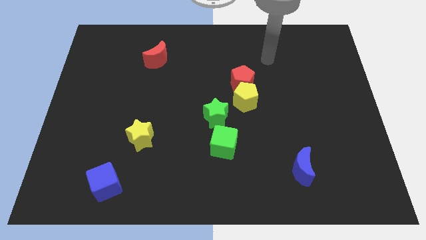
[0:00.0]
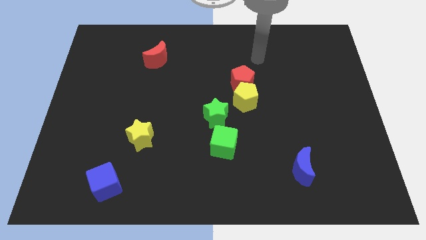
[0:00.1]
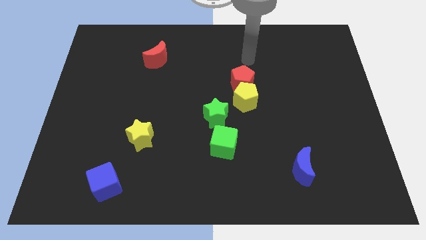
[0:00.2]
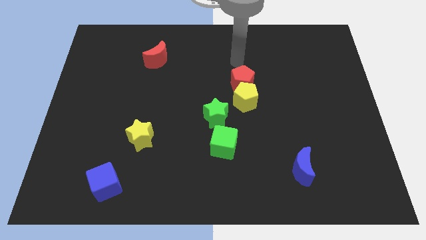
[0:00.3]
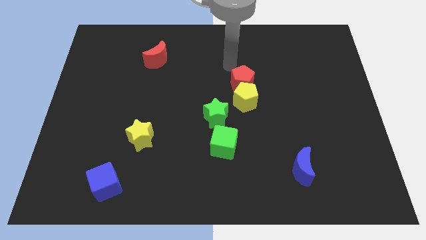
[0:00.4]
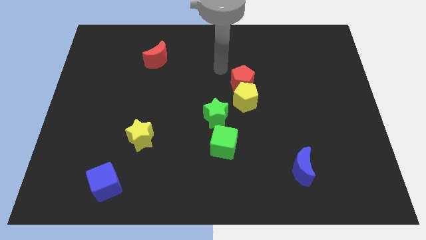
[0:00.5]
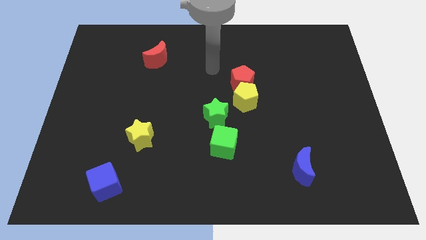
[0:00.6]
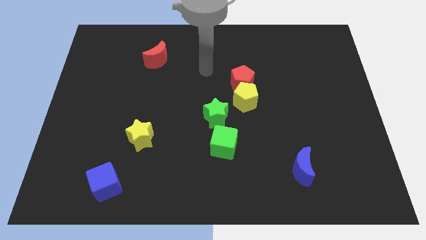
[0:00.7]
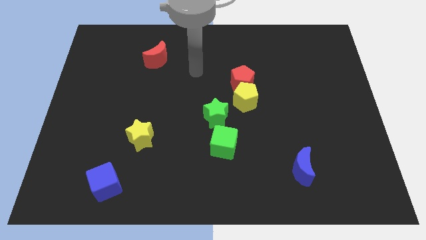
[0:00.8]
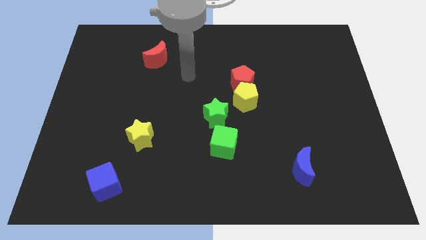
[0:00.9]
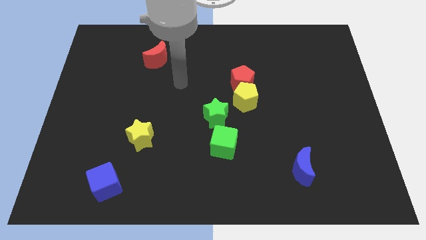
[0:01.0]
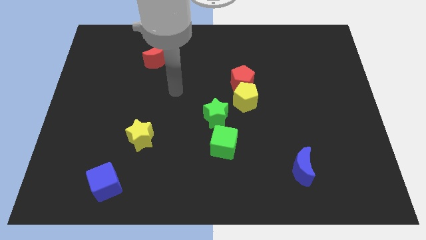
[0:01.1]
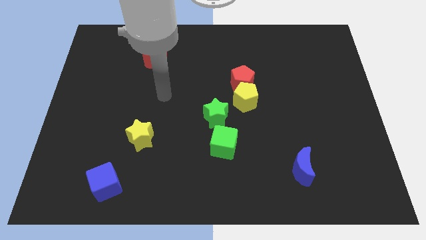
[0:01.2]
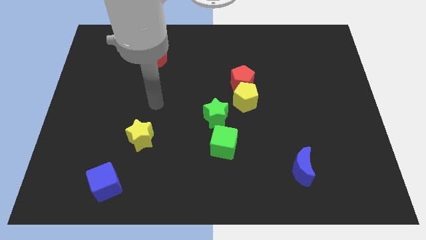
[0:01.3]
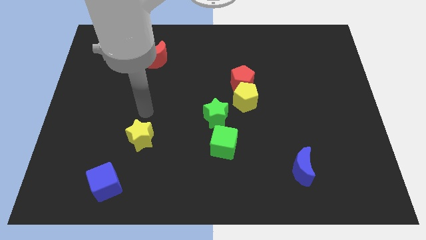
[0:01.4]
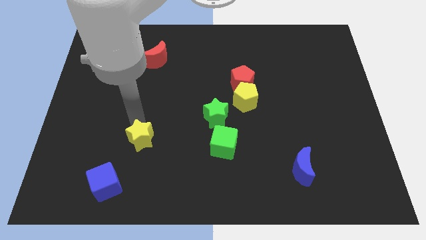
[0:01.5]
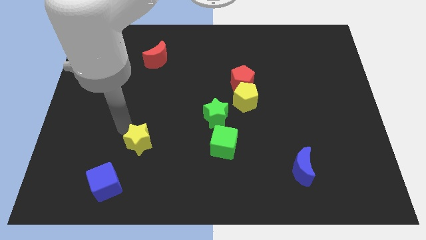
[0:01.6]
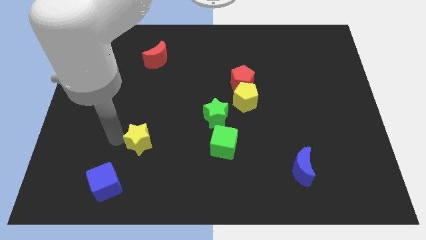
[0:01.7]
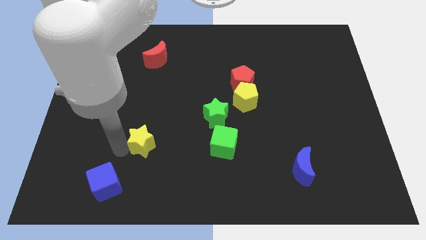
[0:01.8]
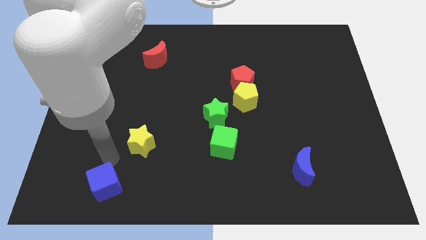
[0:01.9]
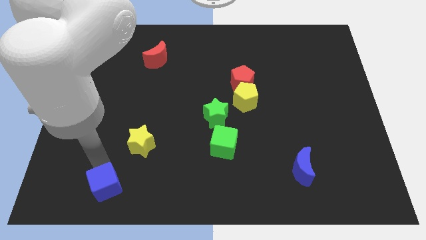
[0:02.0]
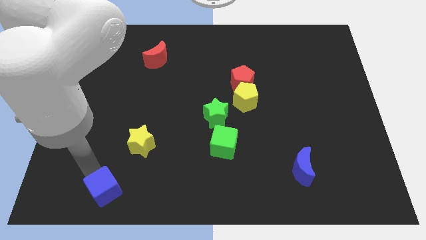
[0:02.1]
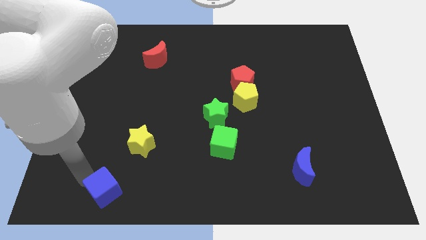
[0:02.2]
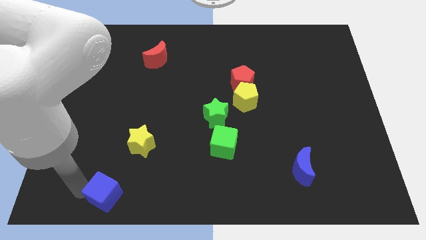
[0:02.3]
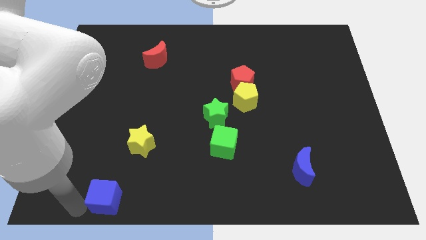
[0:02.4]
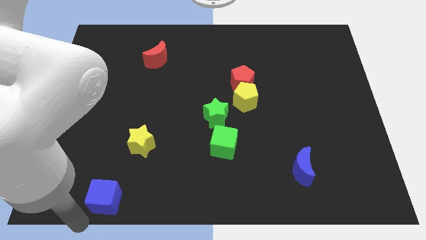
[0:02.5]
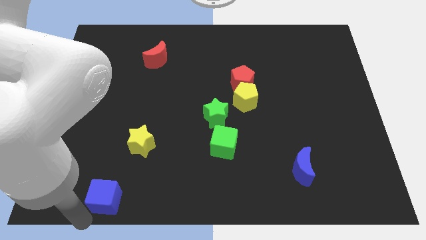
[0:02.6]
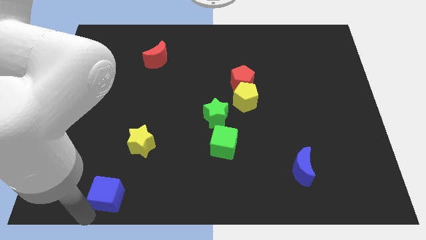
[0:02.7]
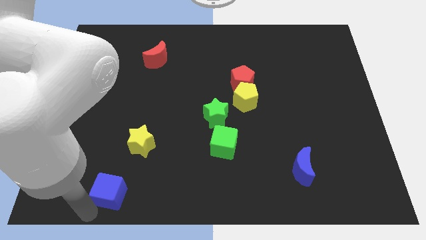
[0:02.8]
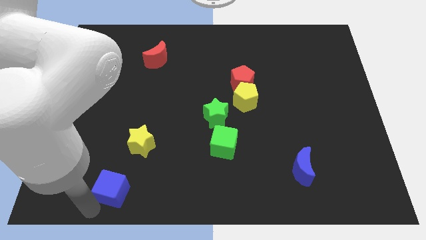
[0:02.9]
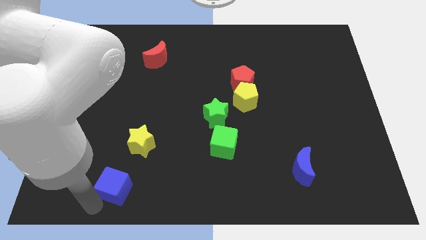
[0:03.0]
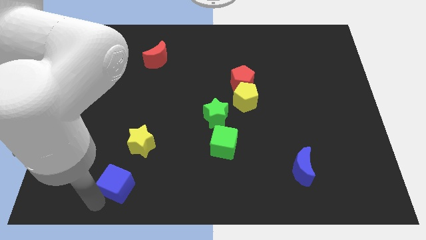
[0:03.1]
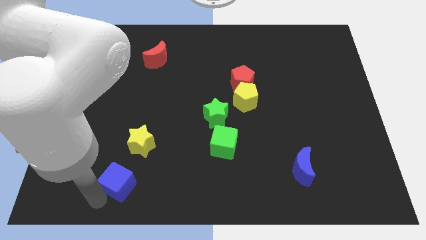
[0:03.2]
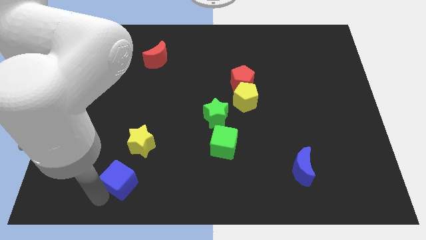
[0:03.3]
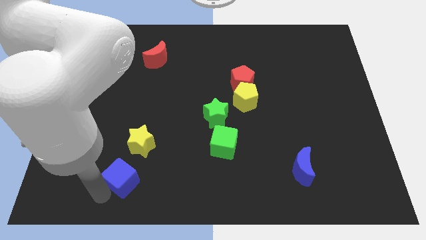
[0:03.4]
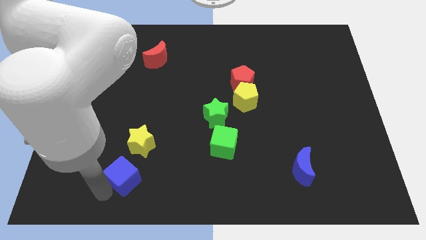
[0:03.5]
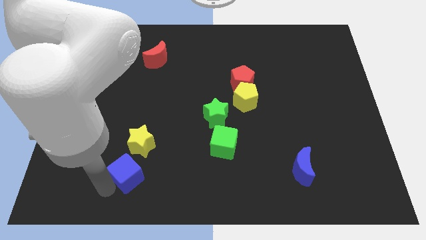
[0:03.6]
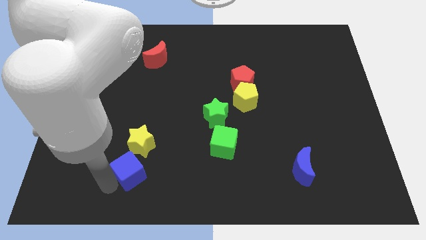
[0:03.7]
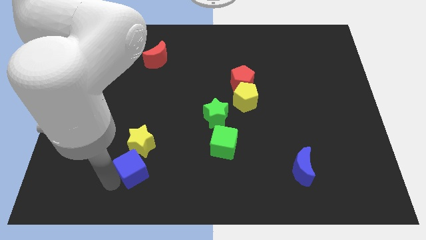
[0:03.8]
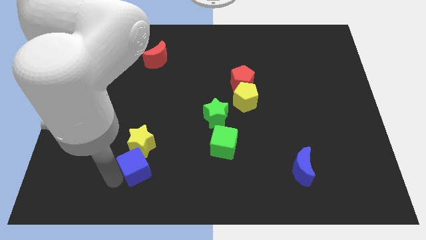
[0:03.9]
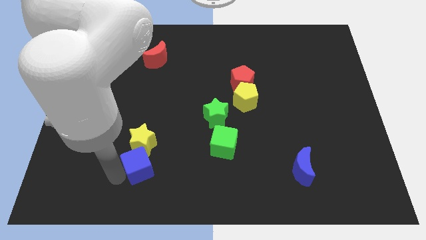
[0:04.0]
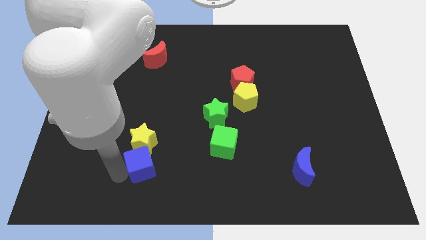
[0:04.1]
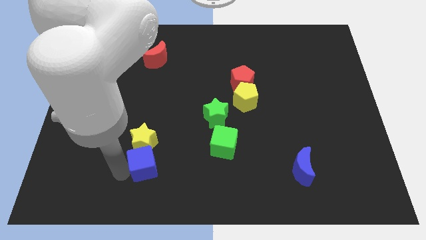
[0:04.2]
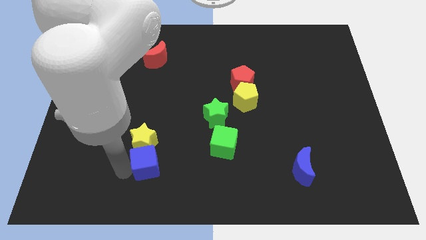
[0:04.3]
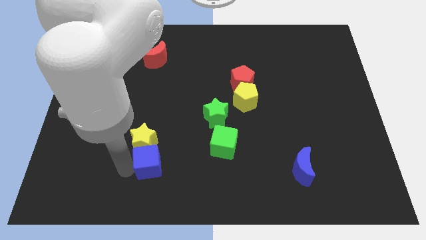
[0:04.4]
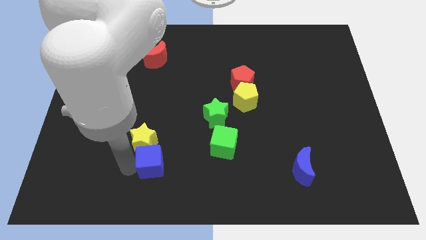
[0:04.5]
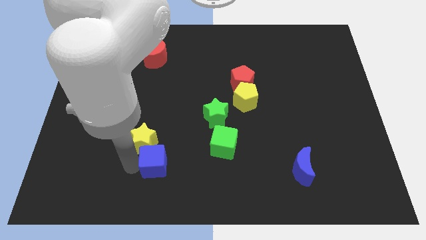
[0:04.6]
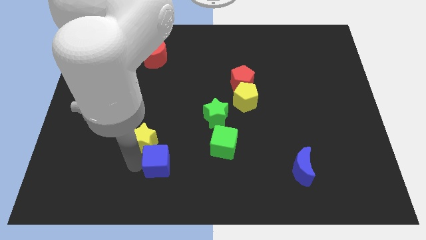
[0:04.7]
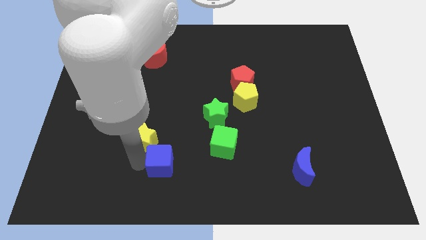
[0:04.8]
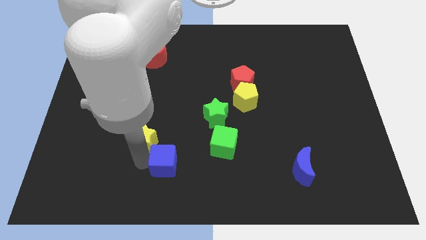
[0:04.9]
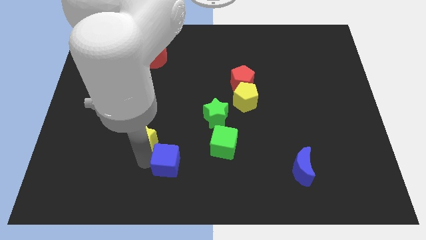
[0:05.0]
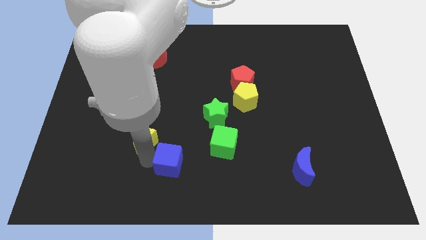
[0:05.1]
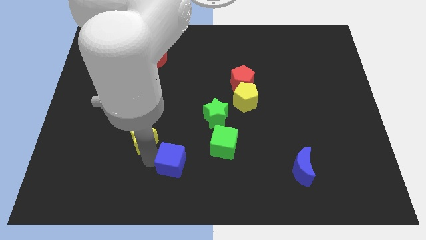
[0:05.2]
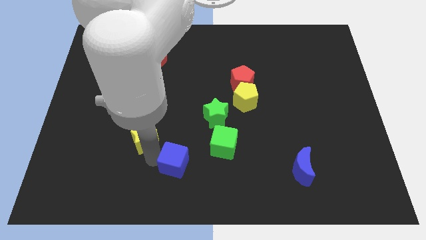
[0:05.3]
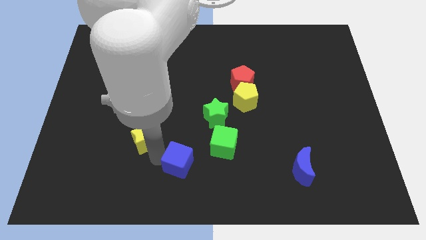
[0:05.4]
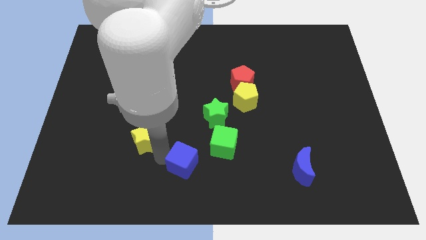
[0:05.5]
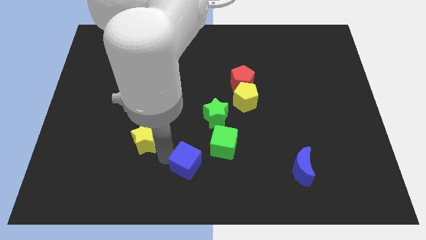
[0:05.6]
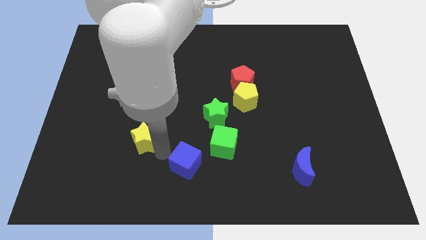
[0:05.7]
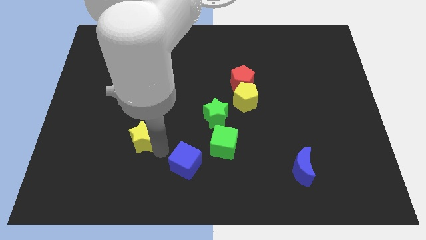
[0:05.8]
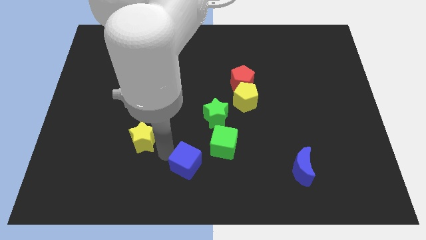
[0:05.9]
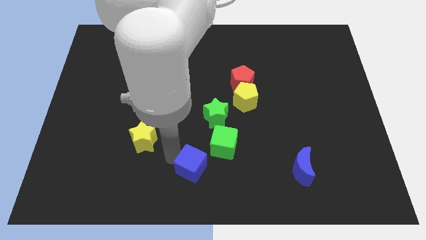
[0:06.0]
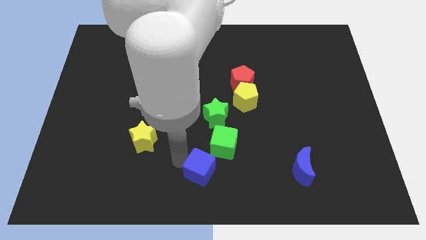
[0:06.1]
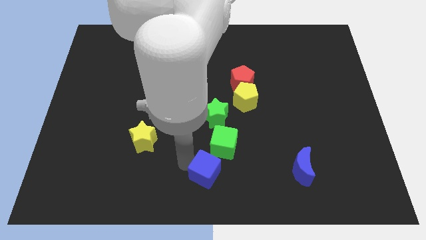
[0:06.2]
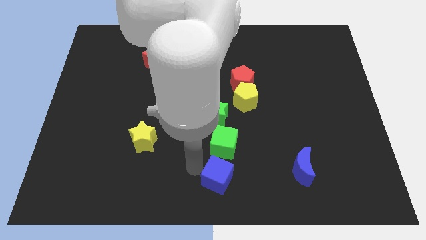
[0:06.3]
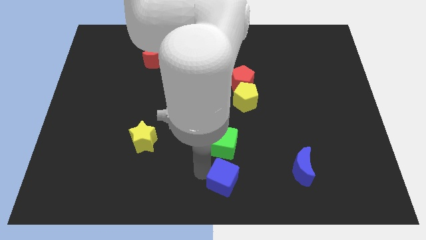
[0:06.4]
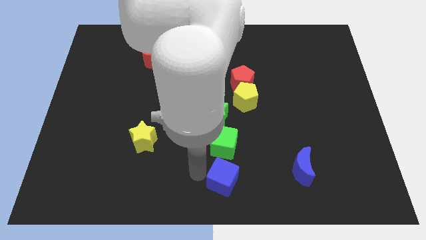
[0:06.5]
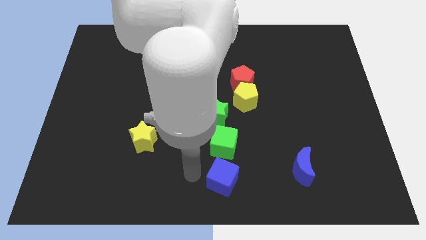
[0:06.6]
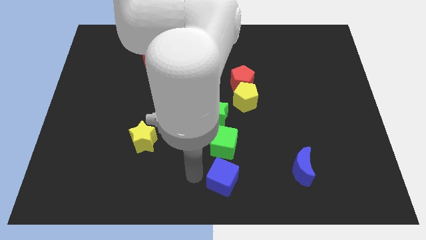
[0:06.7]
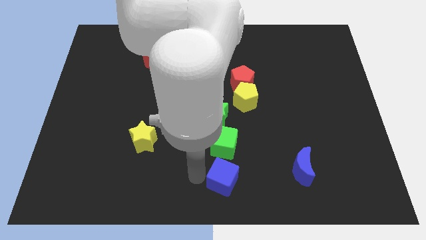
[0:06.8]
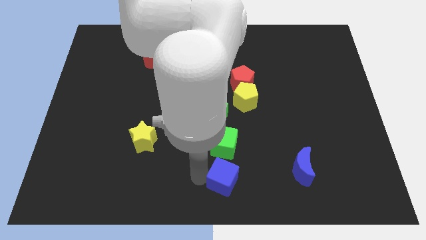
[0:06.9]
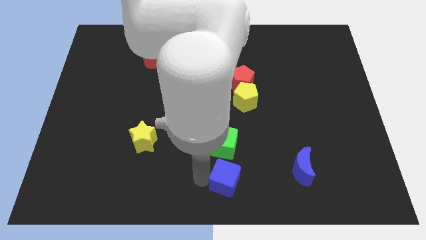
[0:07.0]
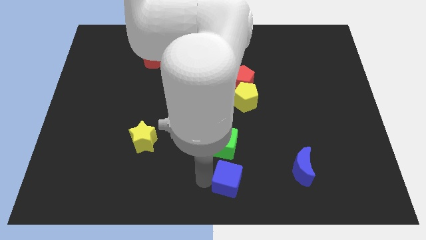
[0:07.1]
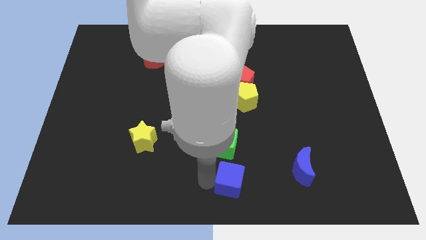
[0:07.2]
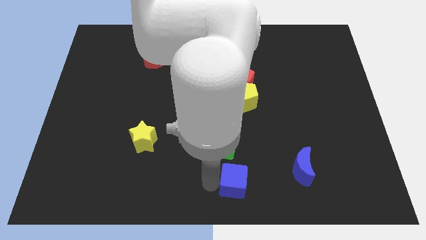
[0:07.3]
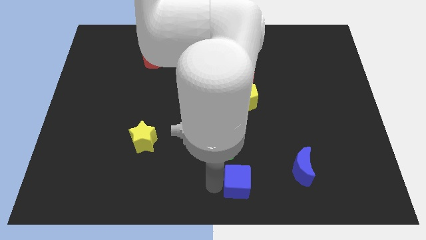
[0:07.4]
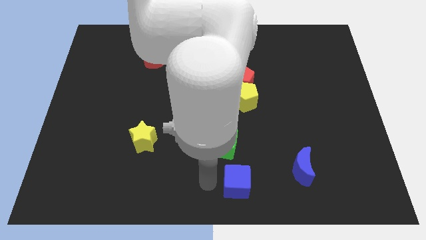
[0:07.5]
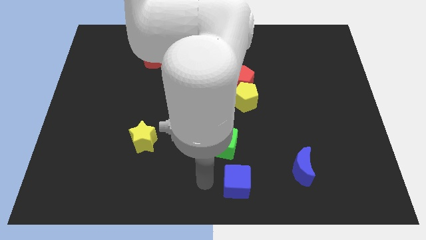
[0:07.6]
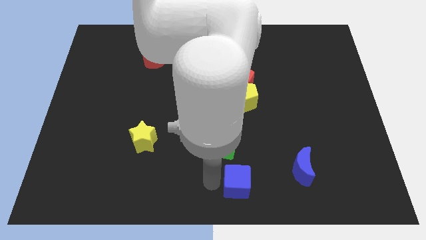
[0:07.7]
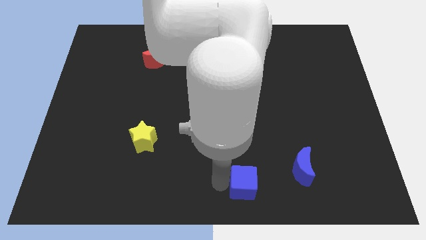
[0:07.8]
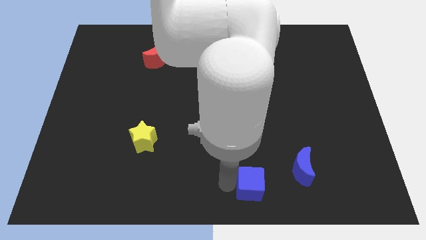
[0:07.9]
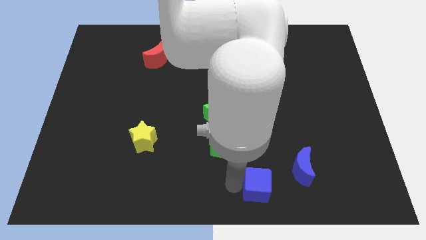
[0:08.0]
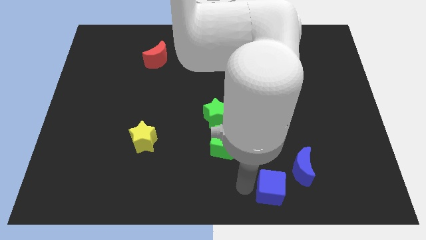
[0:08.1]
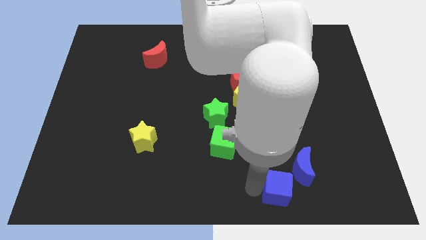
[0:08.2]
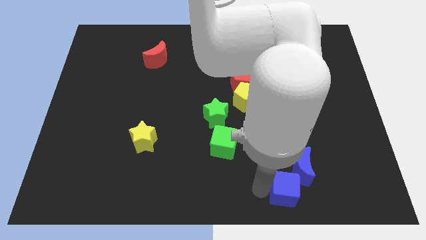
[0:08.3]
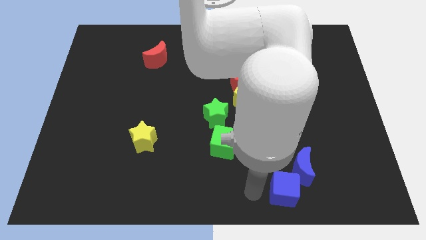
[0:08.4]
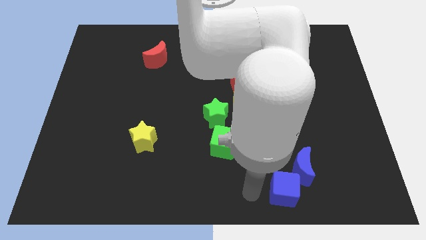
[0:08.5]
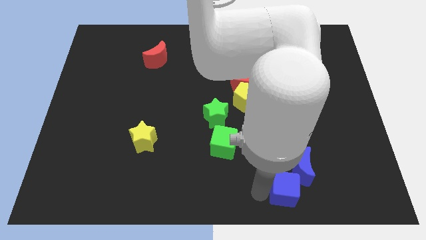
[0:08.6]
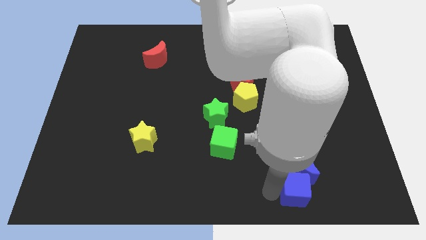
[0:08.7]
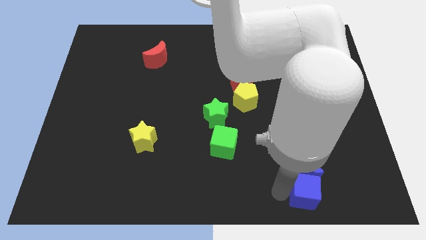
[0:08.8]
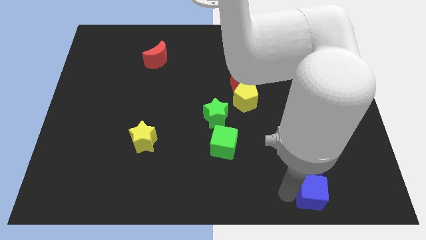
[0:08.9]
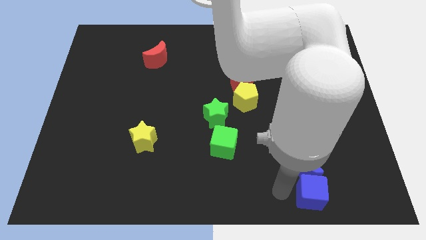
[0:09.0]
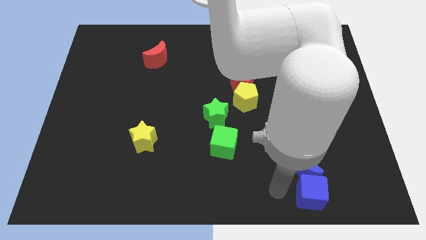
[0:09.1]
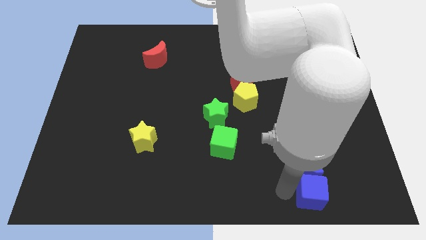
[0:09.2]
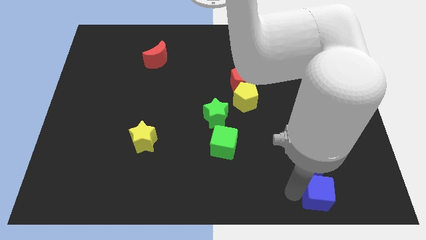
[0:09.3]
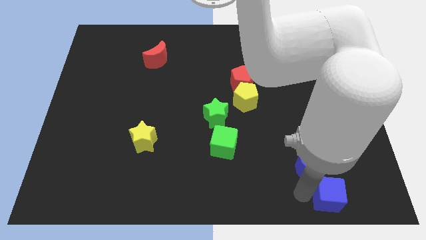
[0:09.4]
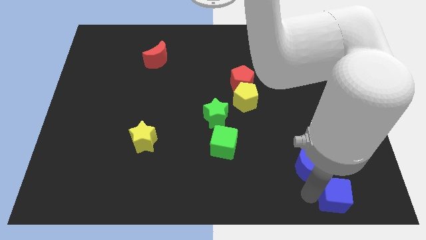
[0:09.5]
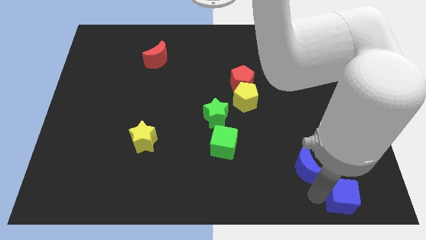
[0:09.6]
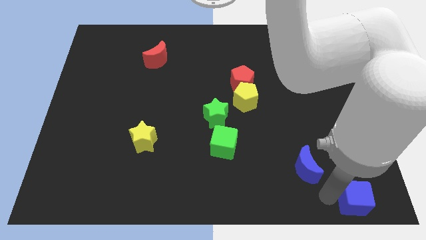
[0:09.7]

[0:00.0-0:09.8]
push the blue cube to the bottom right
